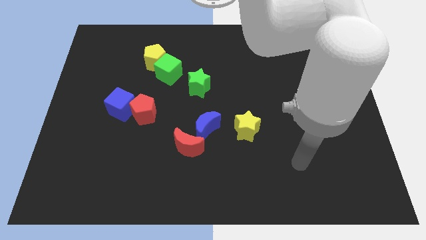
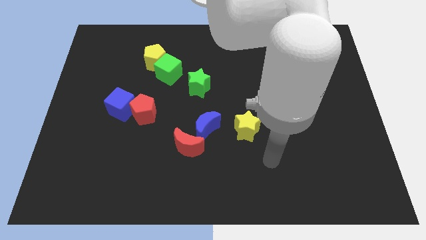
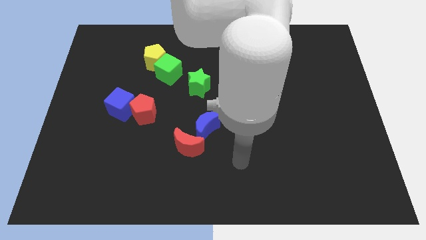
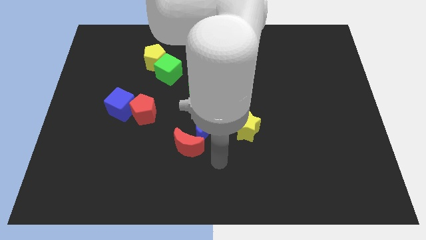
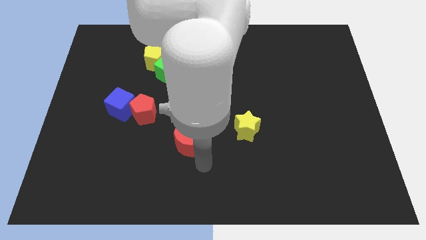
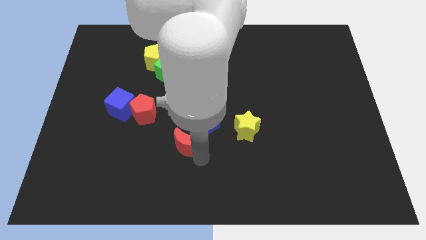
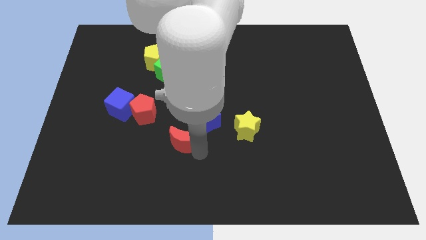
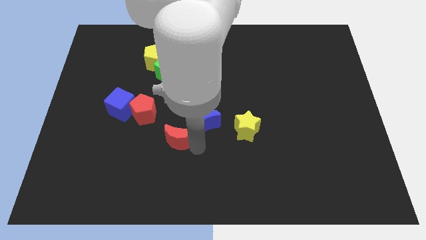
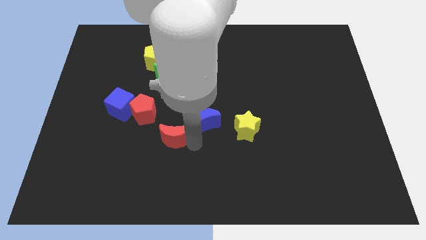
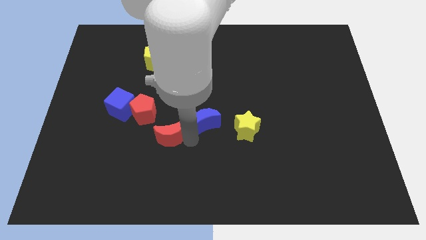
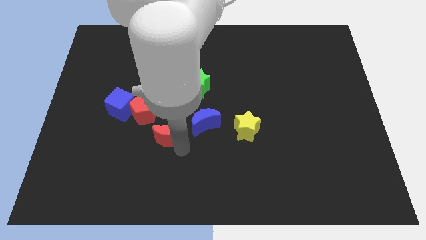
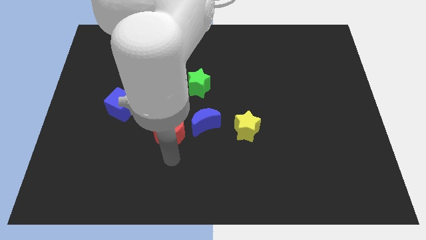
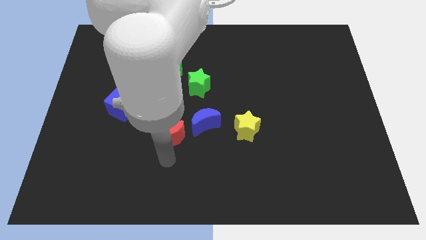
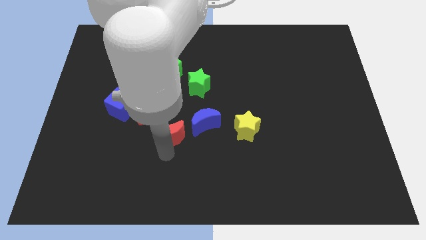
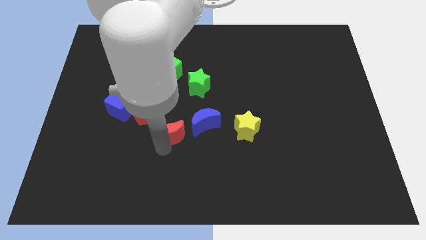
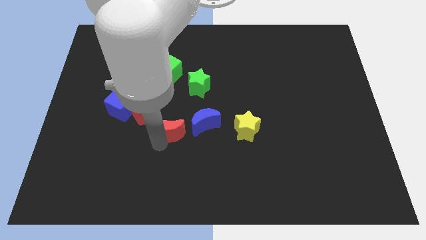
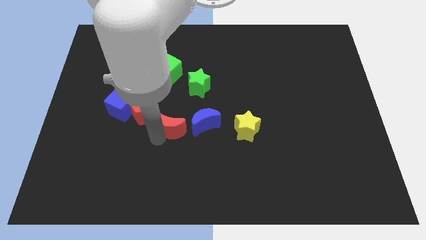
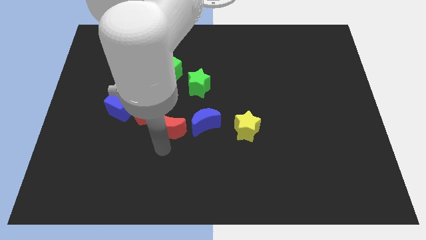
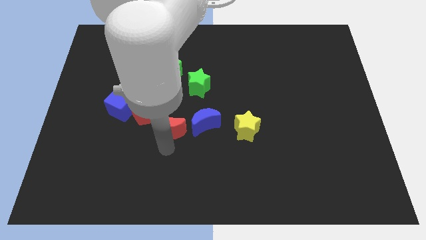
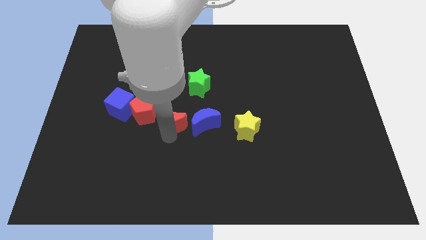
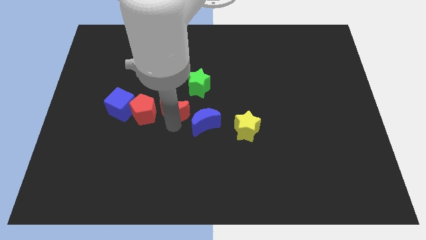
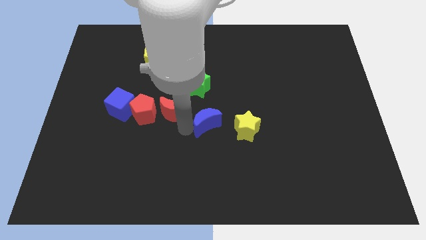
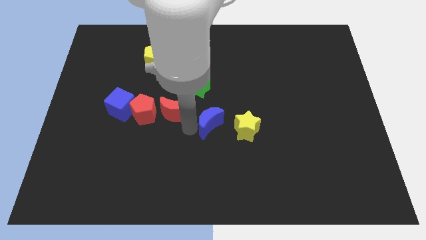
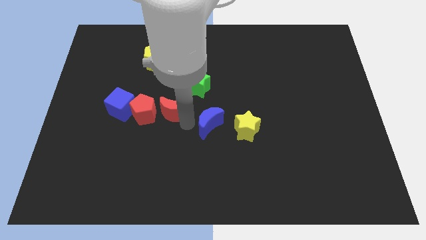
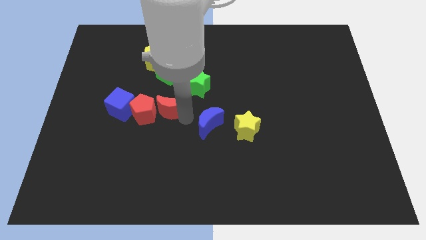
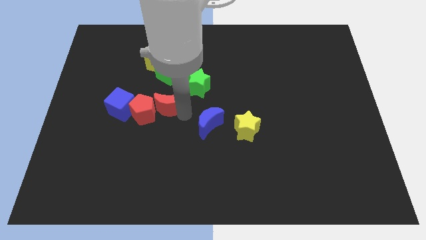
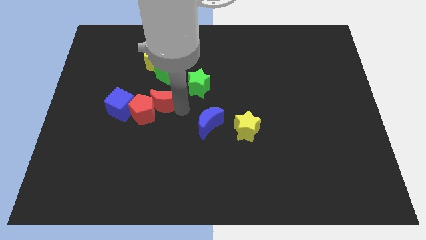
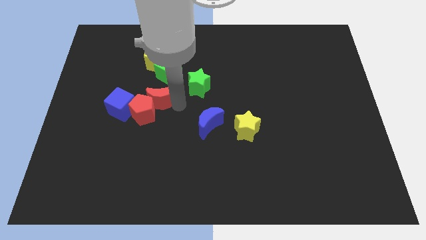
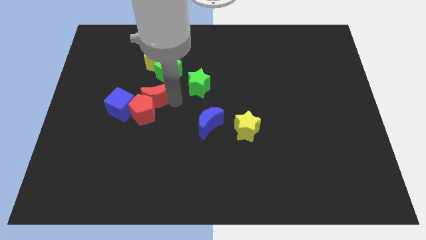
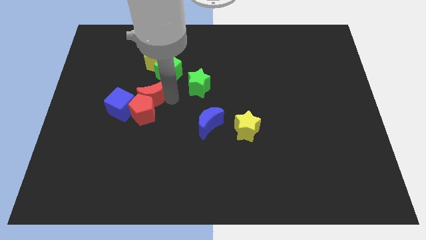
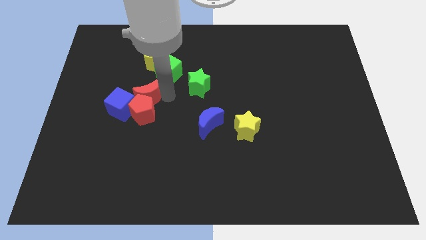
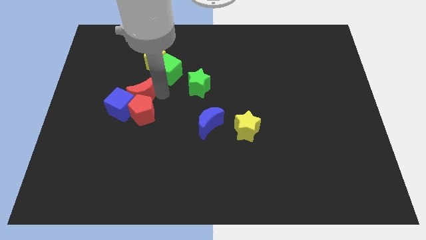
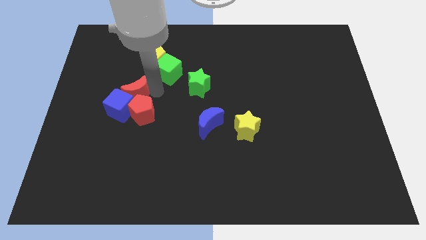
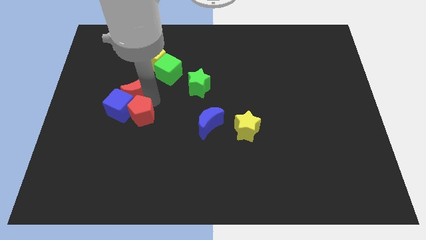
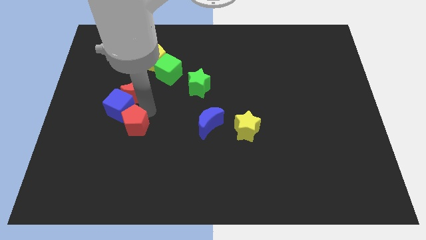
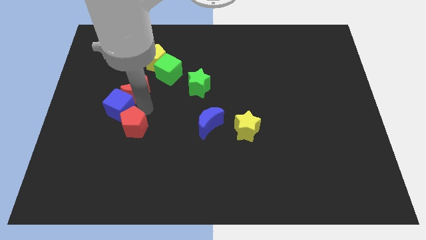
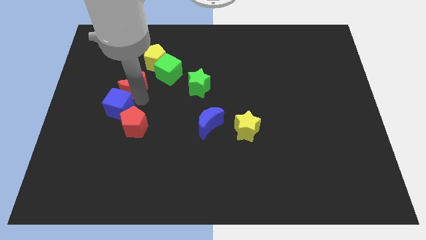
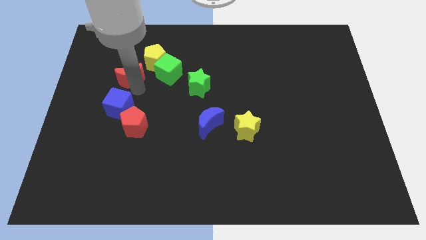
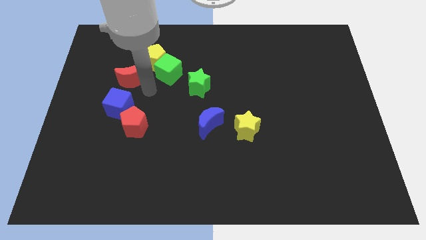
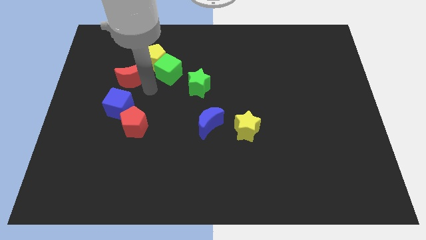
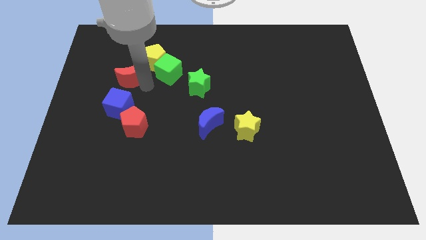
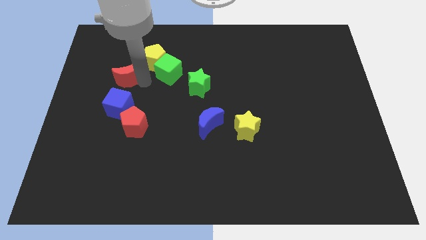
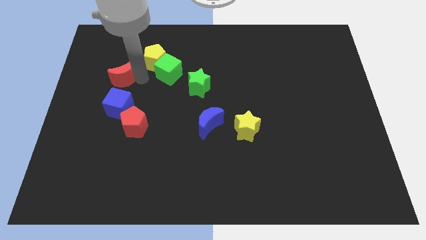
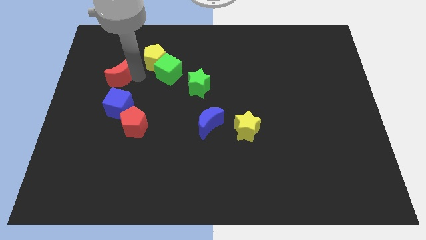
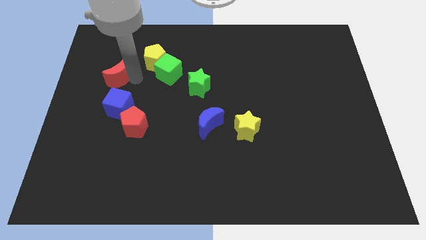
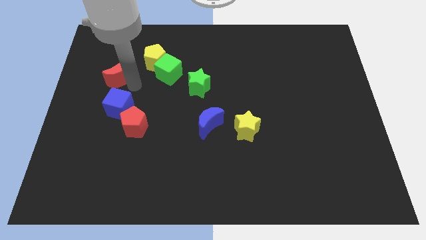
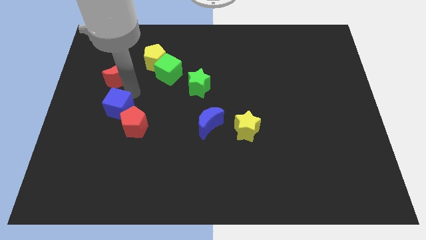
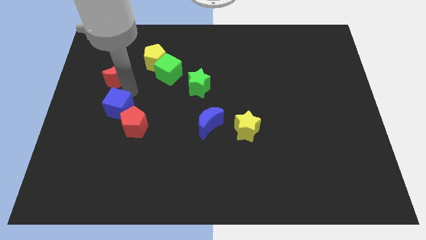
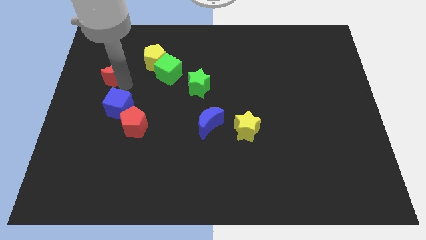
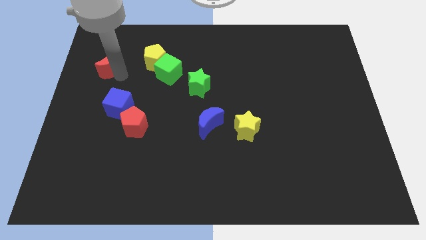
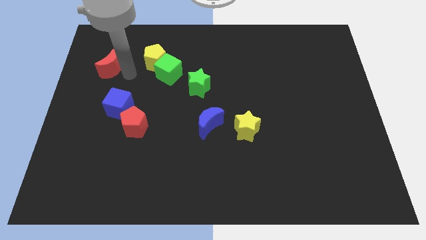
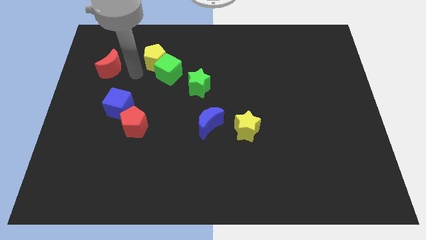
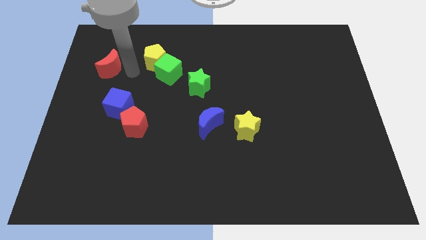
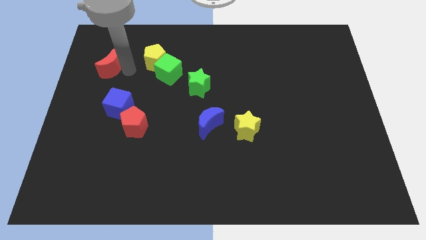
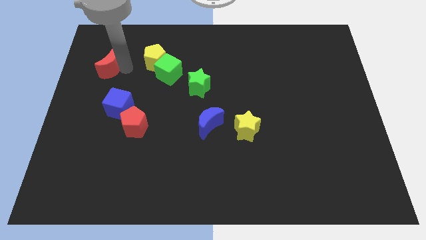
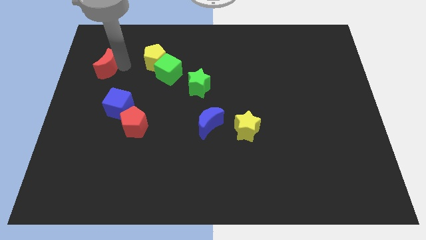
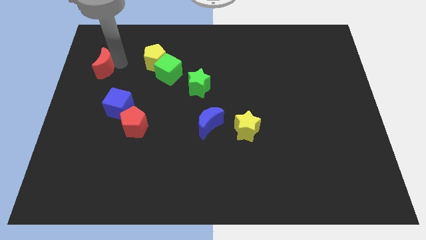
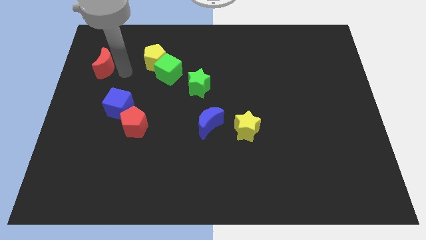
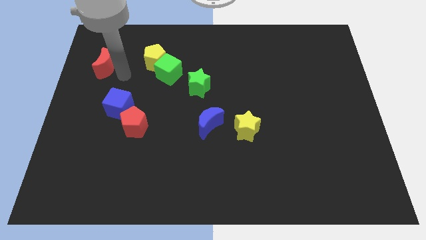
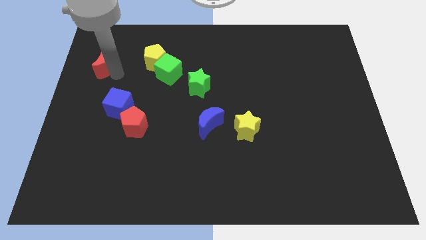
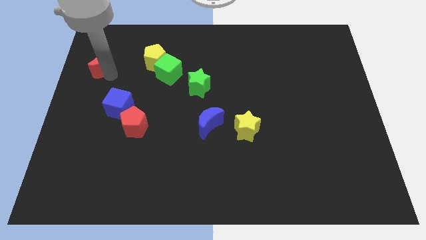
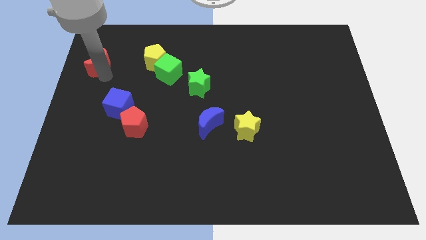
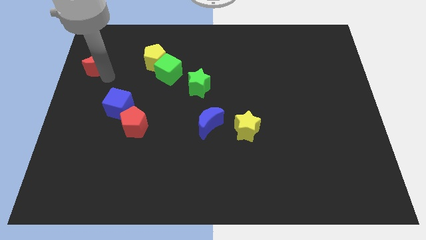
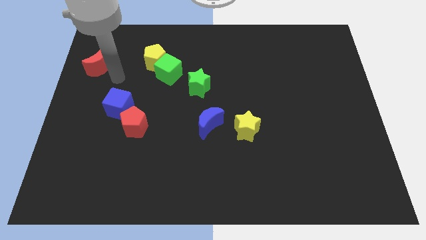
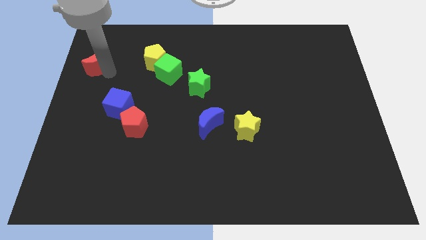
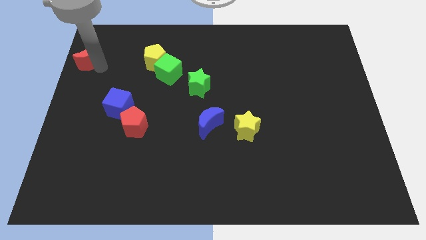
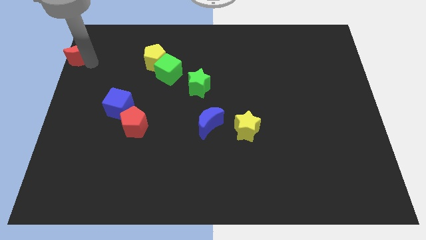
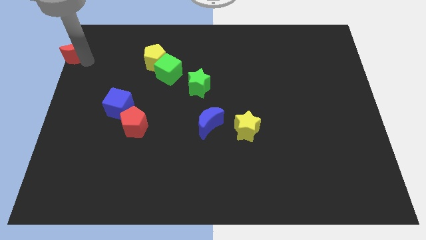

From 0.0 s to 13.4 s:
slide the red moon to the top left
